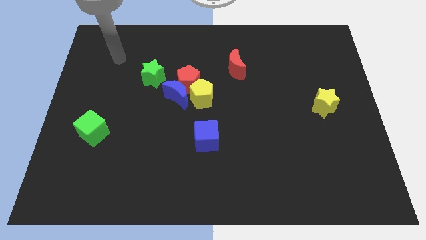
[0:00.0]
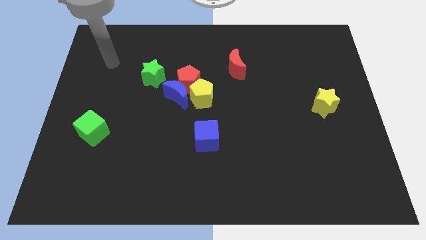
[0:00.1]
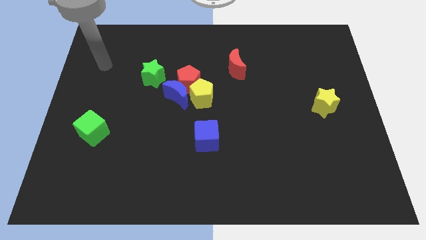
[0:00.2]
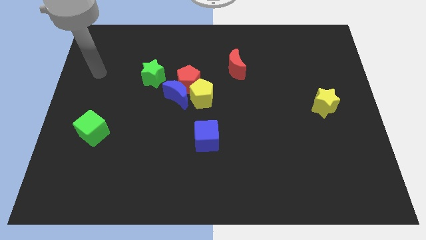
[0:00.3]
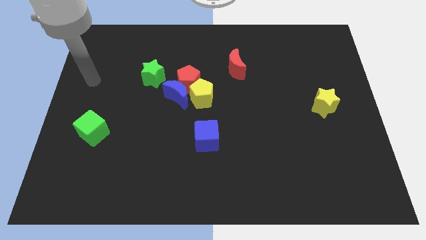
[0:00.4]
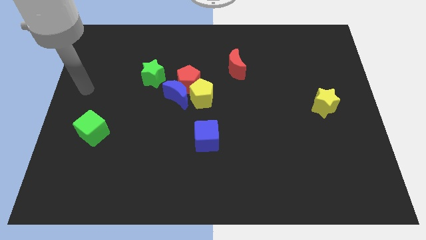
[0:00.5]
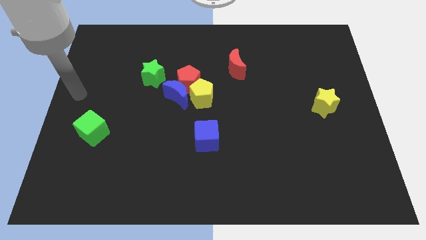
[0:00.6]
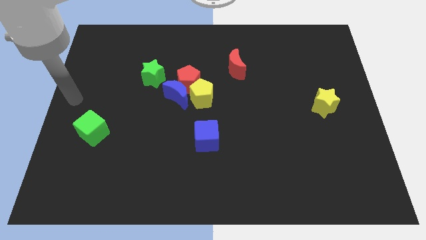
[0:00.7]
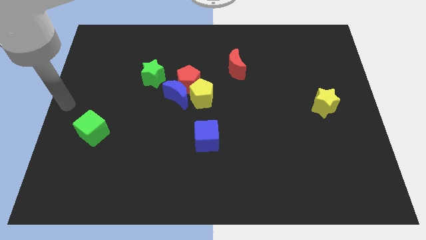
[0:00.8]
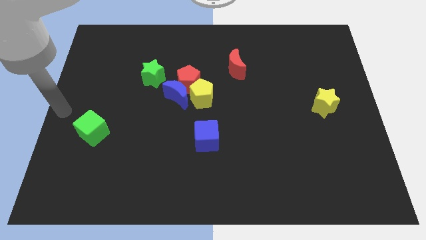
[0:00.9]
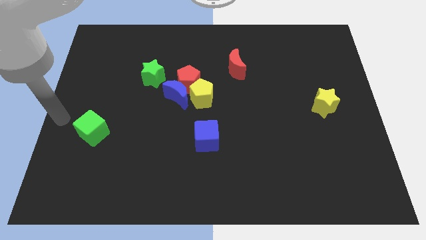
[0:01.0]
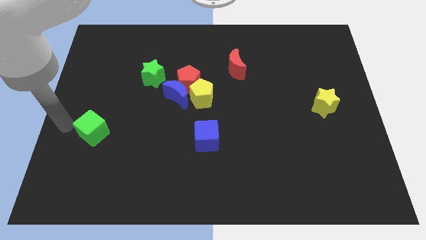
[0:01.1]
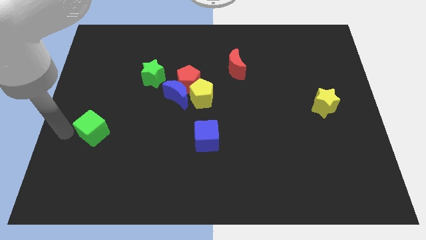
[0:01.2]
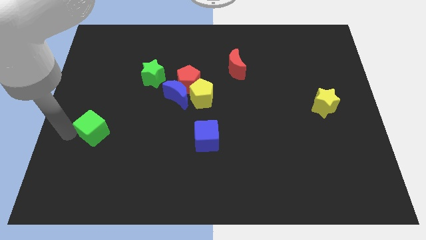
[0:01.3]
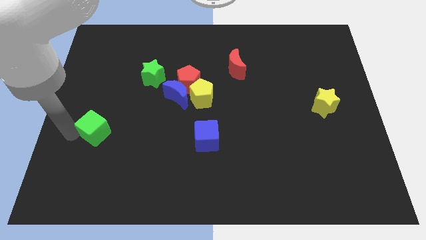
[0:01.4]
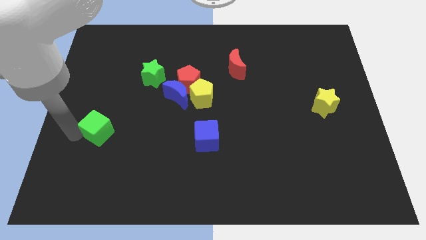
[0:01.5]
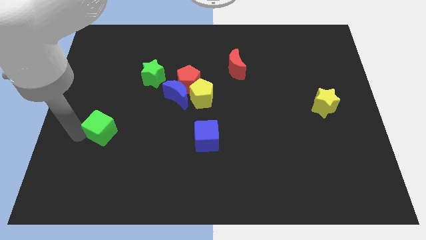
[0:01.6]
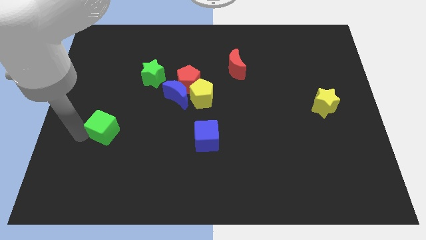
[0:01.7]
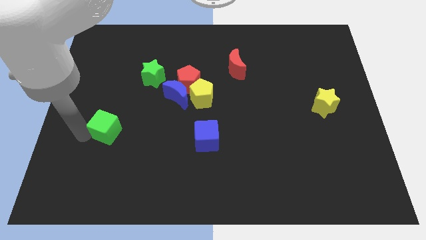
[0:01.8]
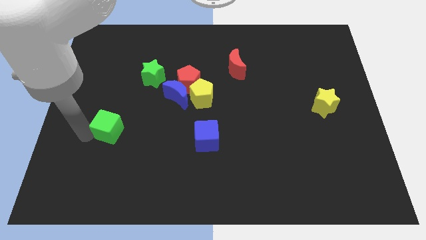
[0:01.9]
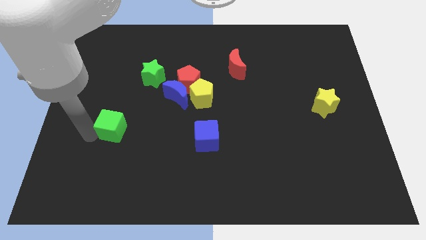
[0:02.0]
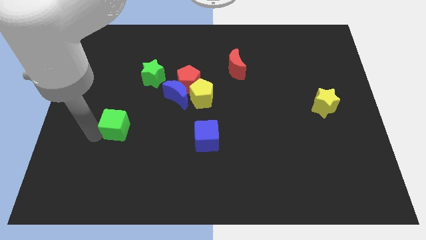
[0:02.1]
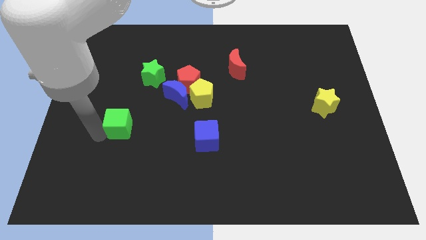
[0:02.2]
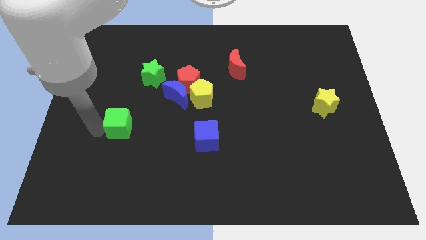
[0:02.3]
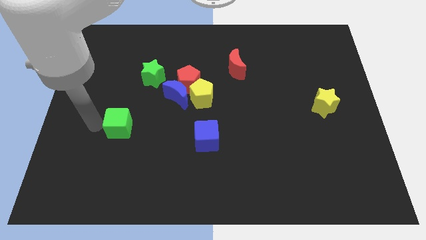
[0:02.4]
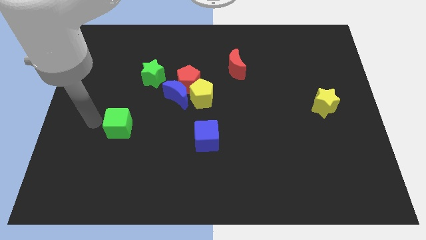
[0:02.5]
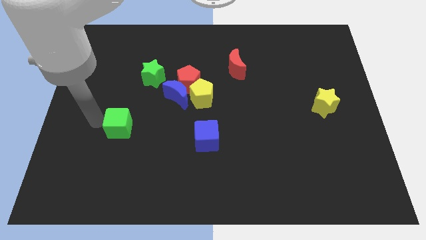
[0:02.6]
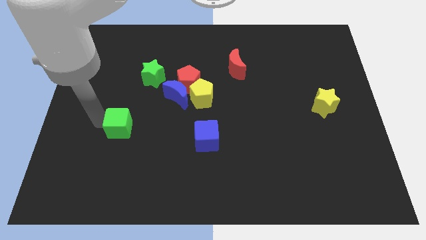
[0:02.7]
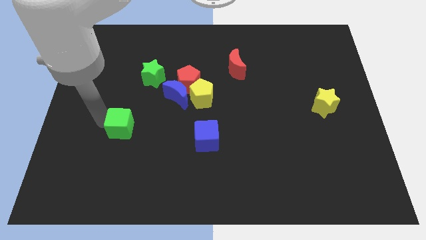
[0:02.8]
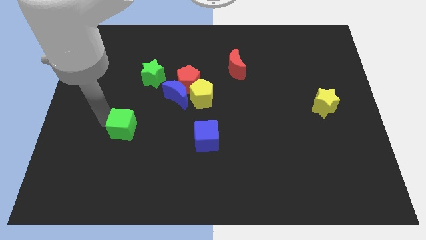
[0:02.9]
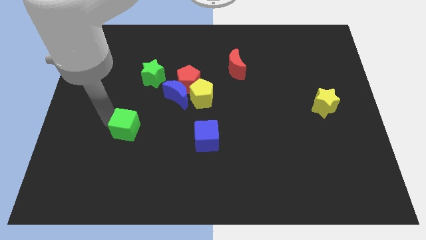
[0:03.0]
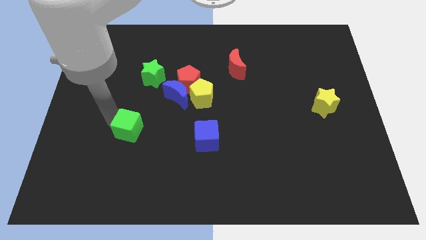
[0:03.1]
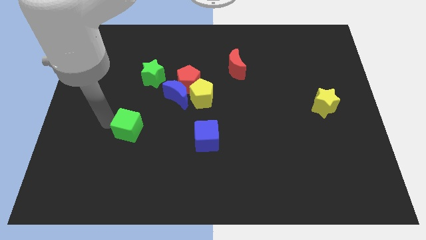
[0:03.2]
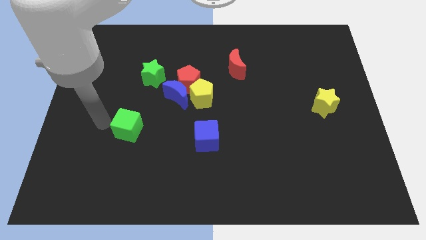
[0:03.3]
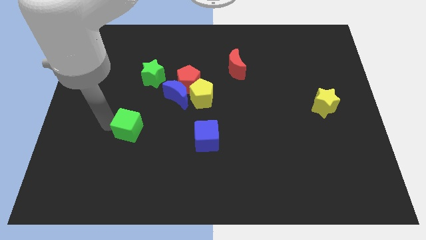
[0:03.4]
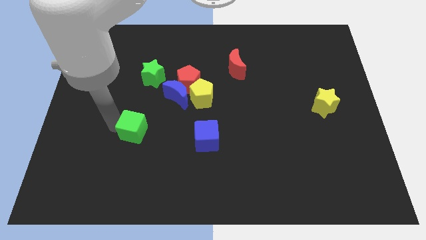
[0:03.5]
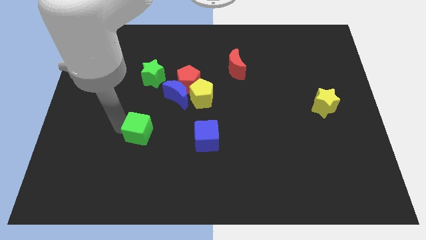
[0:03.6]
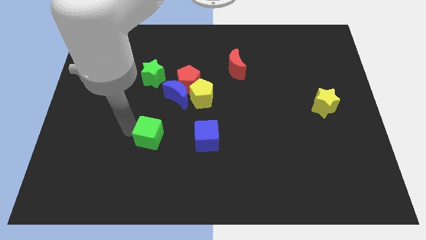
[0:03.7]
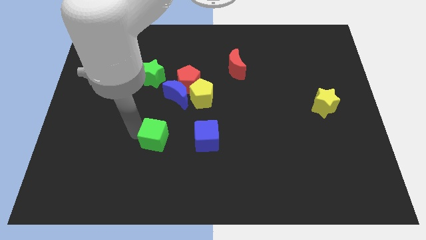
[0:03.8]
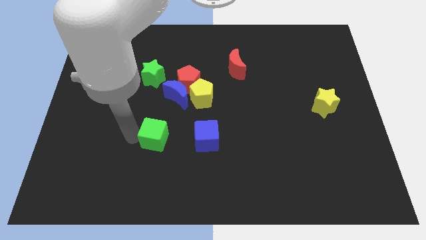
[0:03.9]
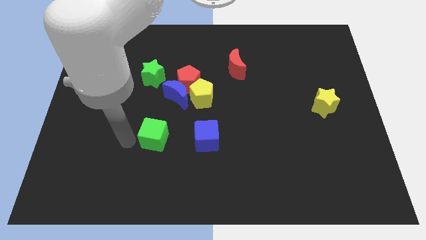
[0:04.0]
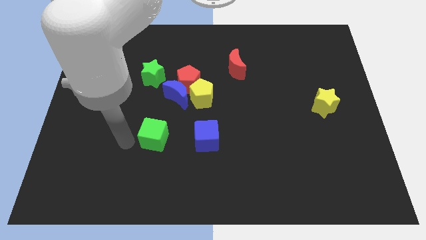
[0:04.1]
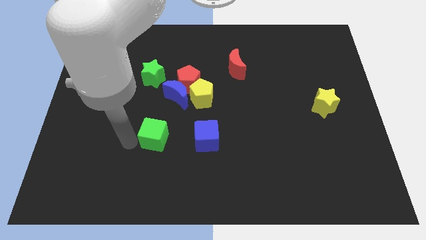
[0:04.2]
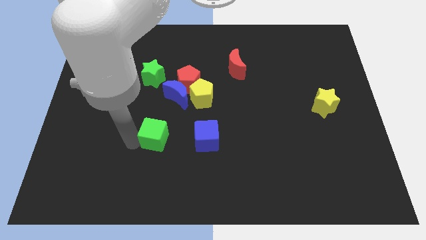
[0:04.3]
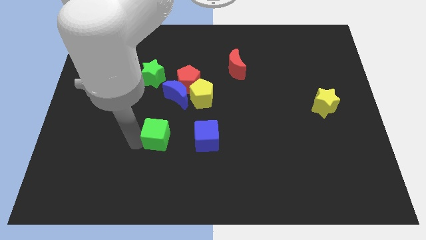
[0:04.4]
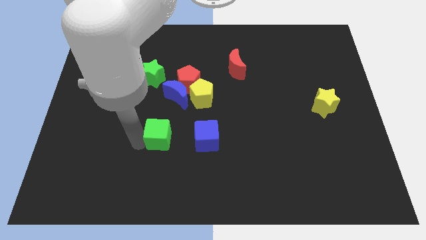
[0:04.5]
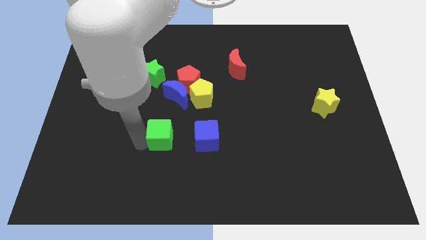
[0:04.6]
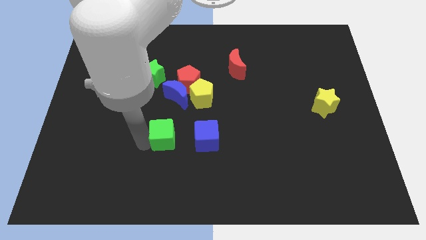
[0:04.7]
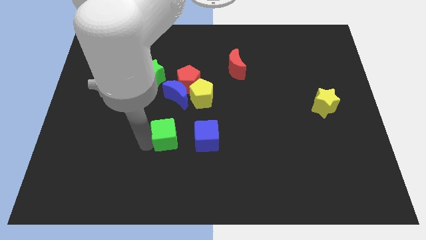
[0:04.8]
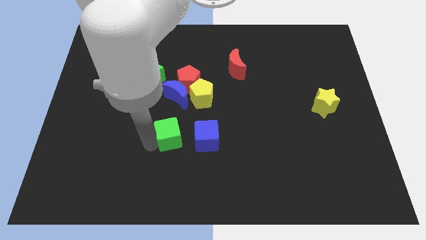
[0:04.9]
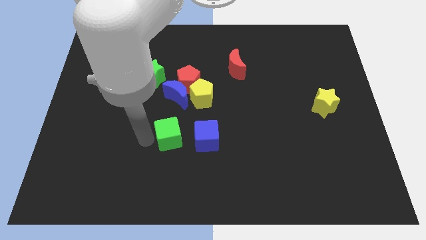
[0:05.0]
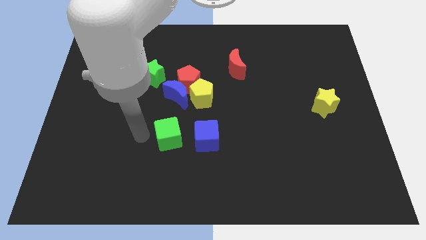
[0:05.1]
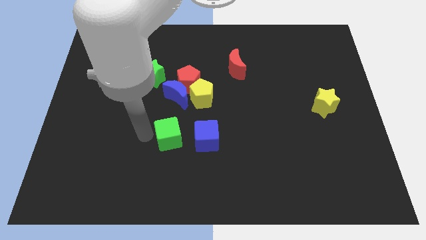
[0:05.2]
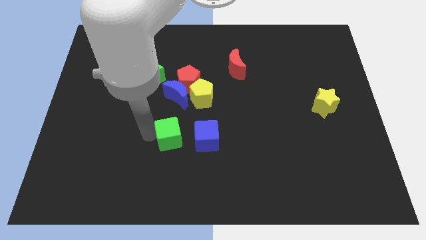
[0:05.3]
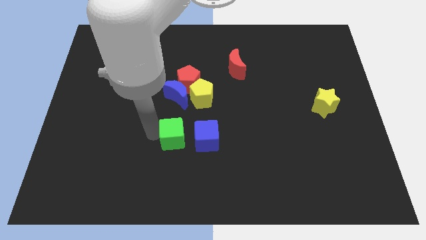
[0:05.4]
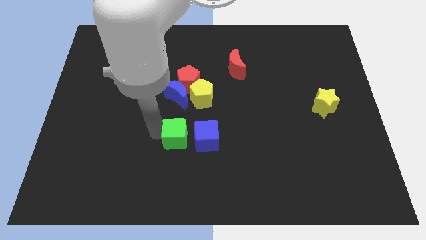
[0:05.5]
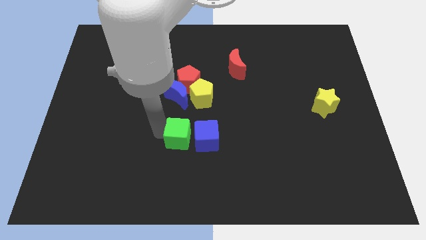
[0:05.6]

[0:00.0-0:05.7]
move the green cube close to the blue cube

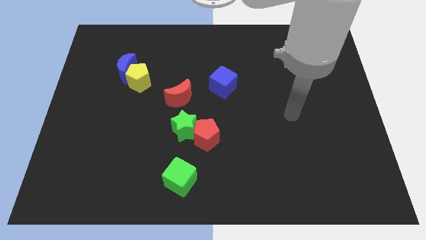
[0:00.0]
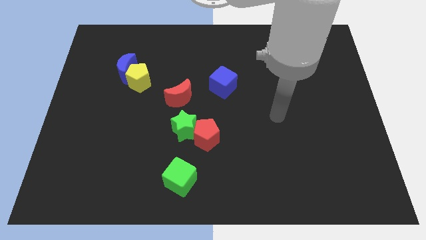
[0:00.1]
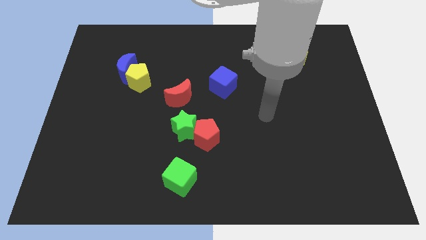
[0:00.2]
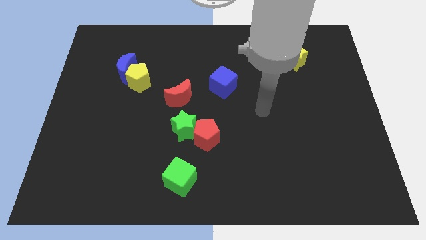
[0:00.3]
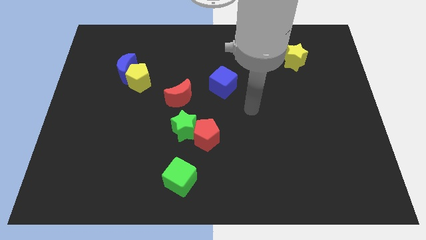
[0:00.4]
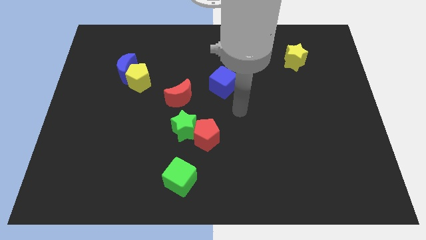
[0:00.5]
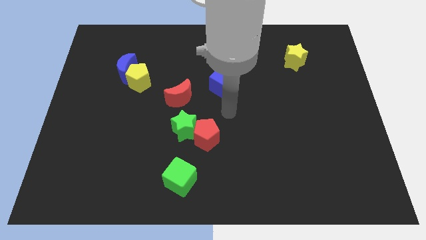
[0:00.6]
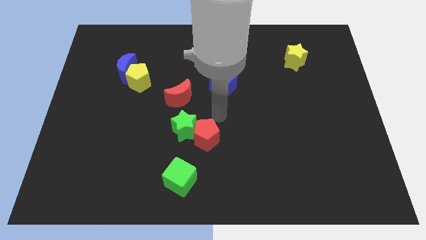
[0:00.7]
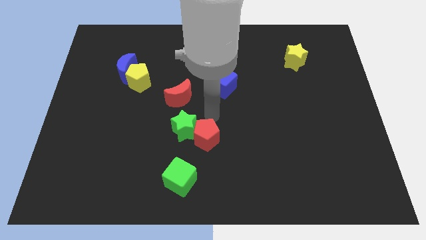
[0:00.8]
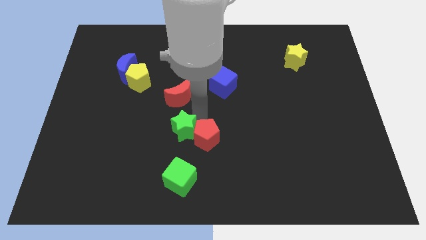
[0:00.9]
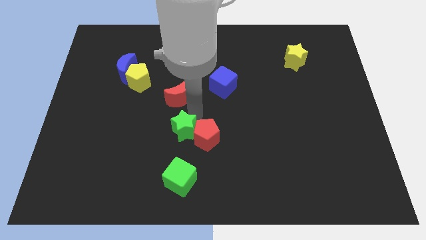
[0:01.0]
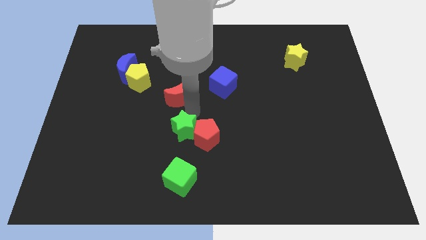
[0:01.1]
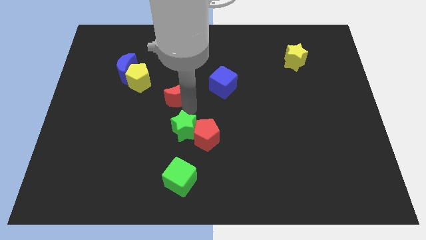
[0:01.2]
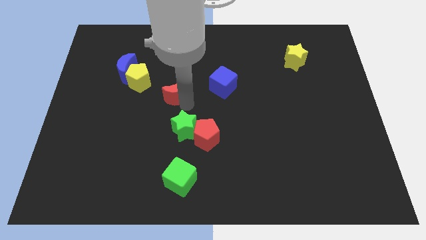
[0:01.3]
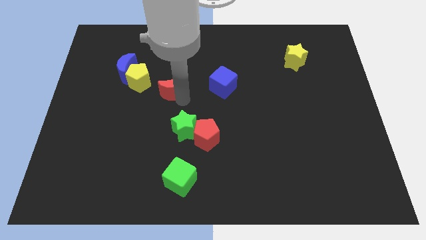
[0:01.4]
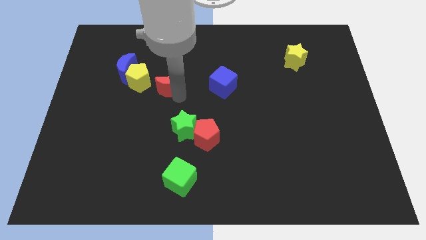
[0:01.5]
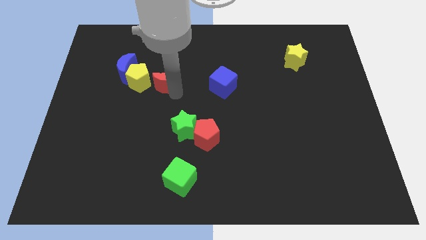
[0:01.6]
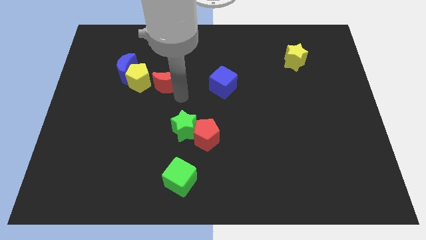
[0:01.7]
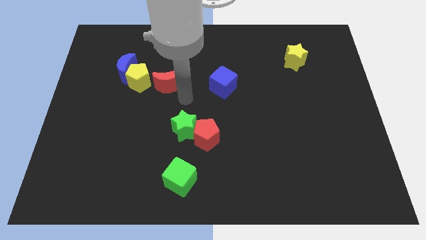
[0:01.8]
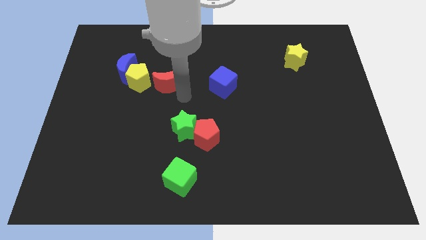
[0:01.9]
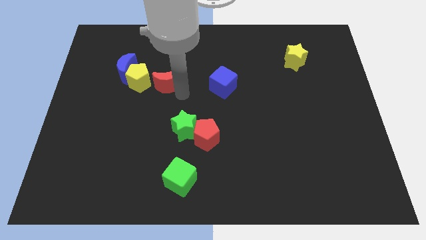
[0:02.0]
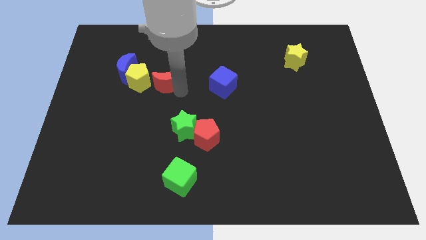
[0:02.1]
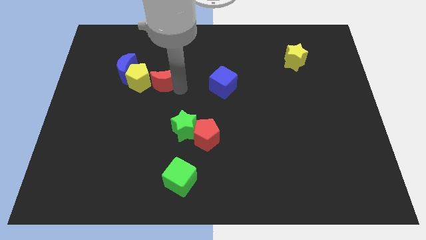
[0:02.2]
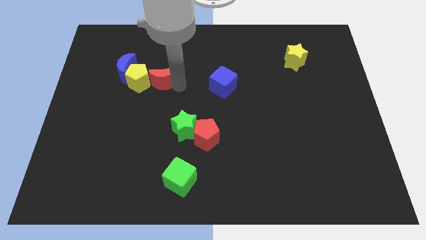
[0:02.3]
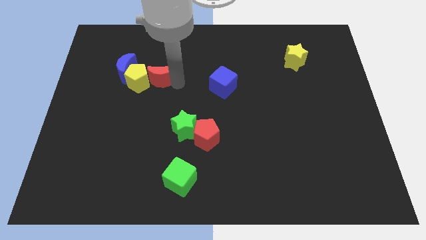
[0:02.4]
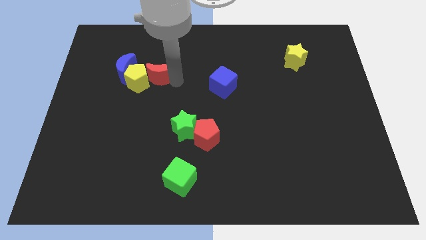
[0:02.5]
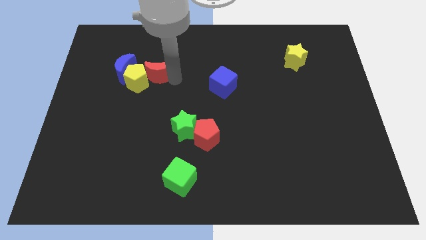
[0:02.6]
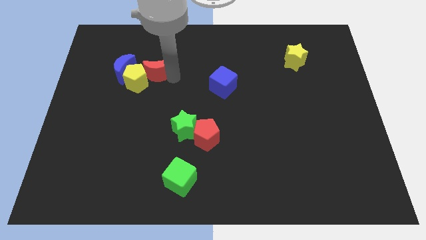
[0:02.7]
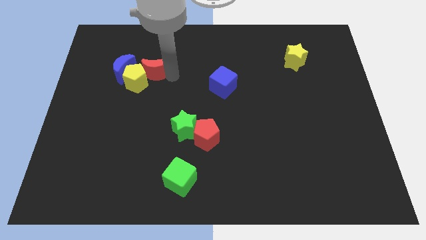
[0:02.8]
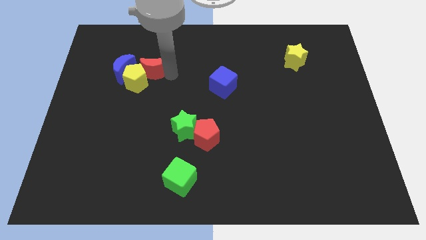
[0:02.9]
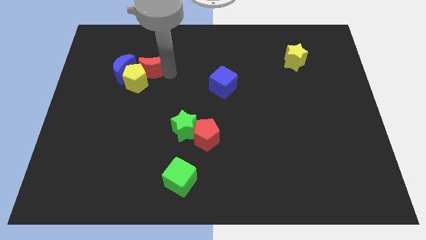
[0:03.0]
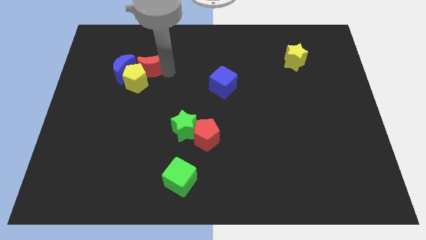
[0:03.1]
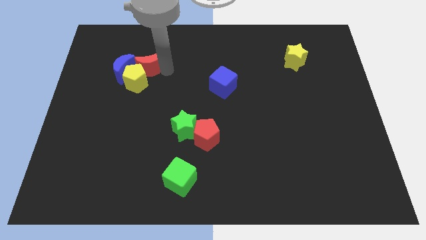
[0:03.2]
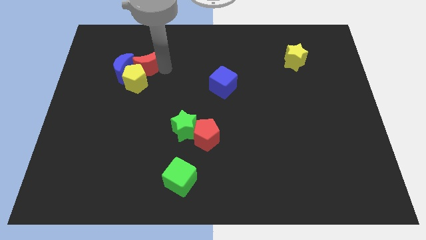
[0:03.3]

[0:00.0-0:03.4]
put the red moon towards the blue moon
